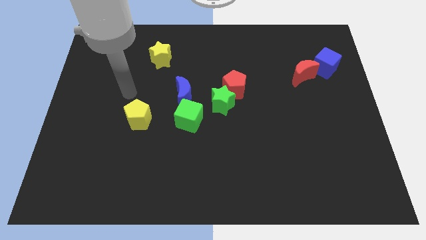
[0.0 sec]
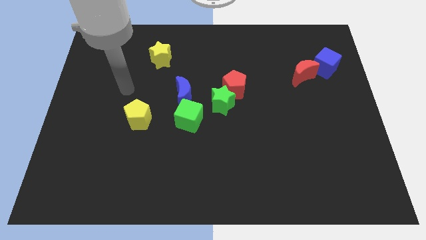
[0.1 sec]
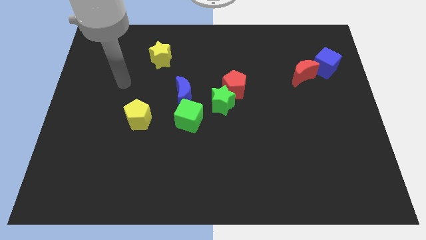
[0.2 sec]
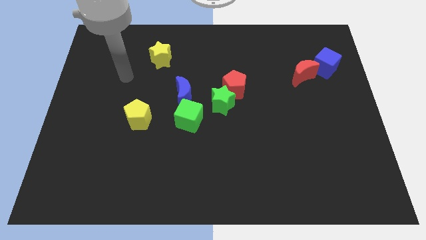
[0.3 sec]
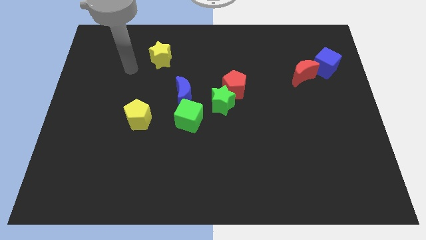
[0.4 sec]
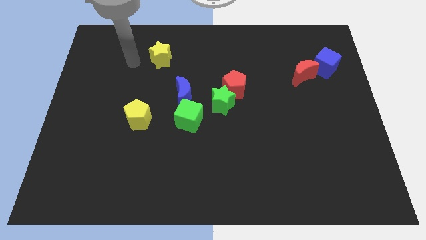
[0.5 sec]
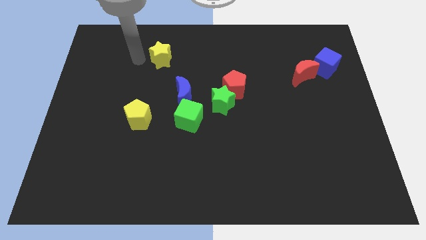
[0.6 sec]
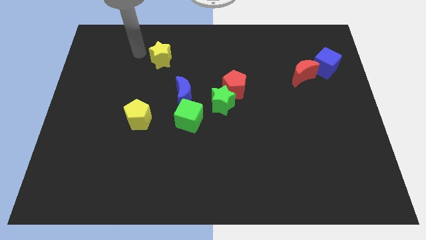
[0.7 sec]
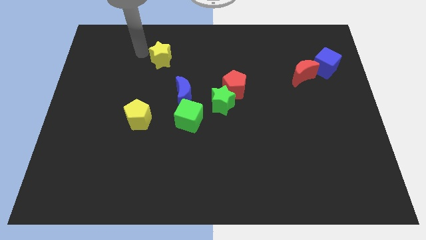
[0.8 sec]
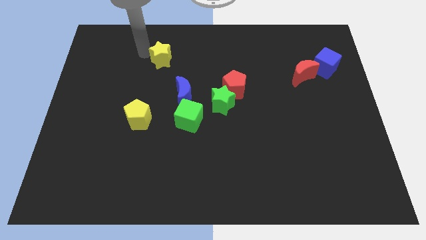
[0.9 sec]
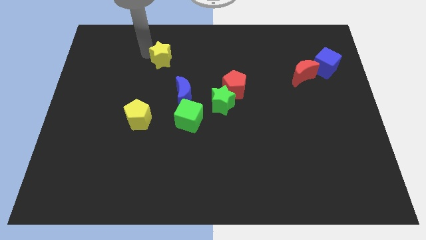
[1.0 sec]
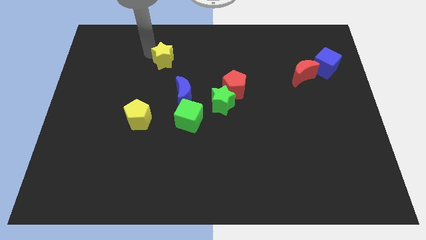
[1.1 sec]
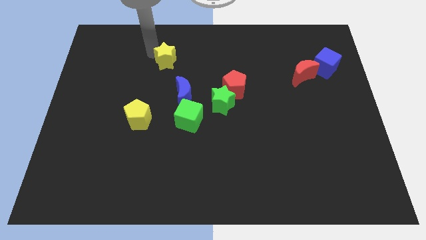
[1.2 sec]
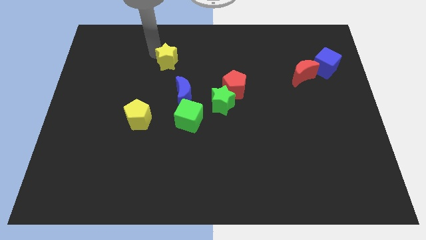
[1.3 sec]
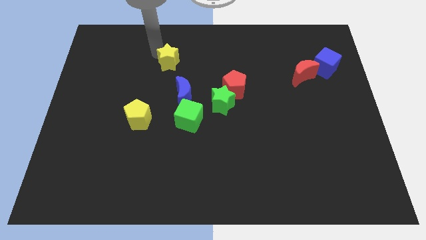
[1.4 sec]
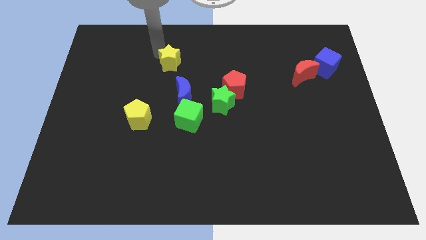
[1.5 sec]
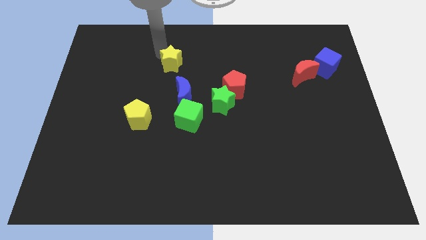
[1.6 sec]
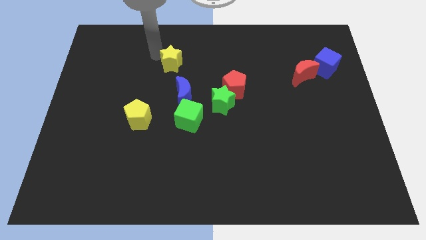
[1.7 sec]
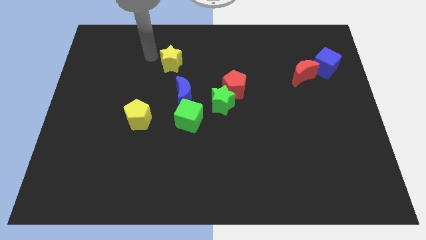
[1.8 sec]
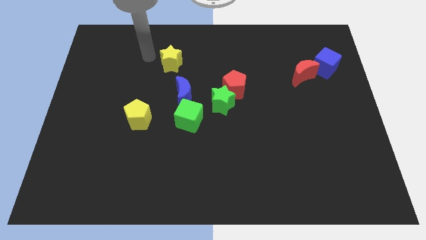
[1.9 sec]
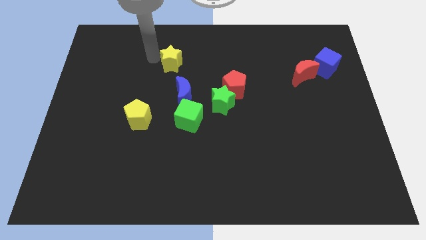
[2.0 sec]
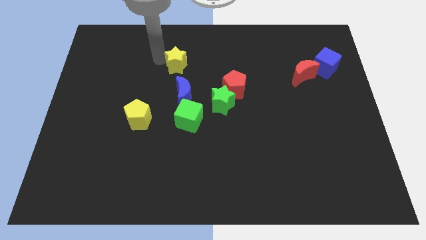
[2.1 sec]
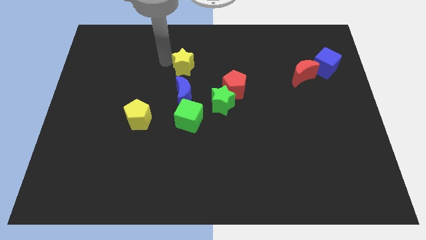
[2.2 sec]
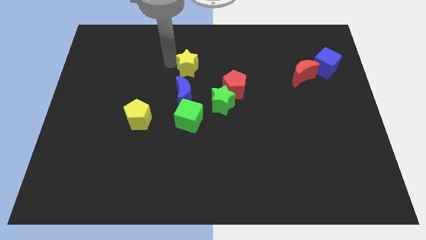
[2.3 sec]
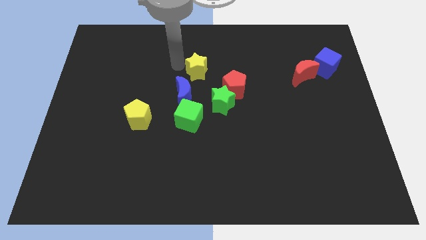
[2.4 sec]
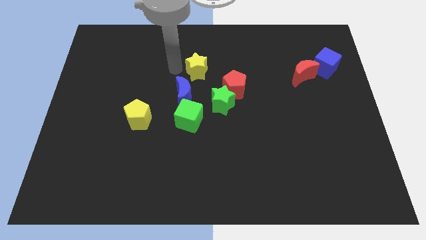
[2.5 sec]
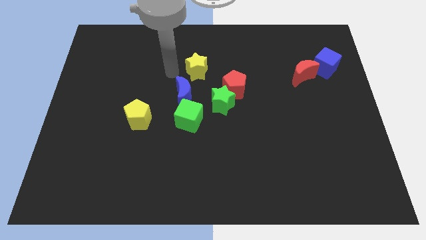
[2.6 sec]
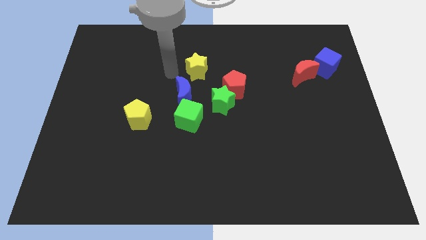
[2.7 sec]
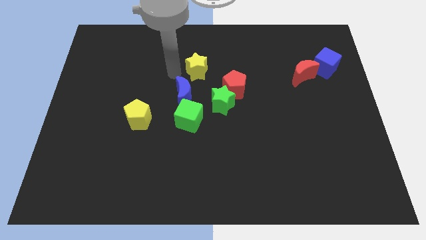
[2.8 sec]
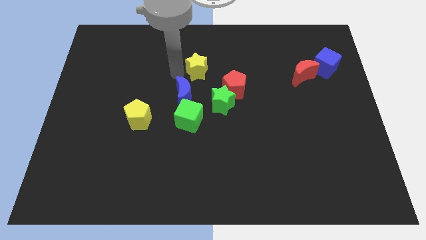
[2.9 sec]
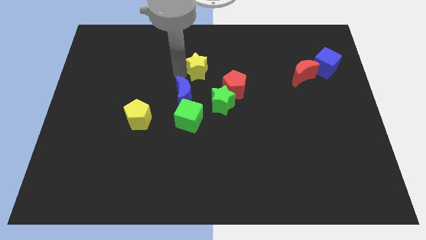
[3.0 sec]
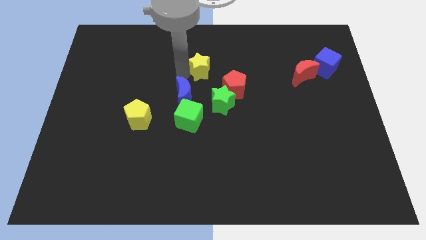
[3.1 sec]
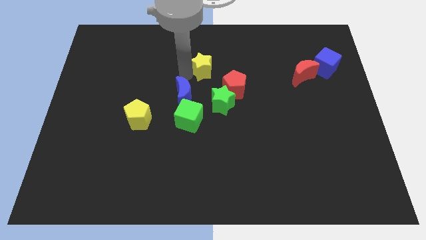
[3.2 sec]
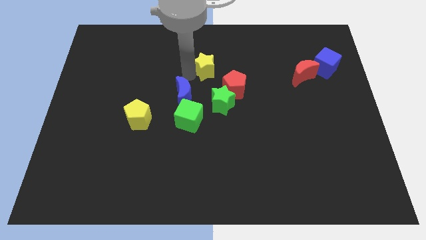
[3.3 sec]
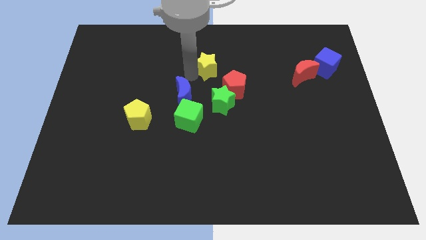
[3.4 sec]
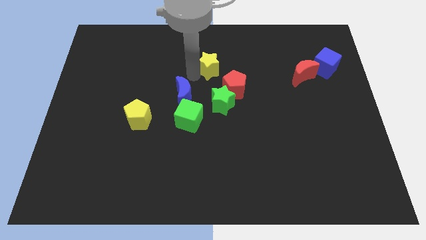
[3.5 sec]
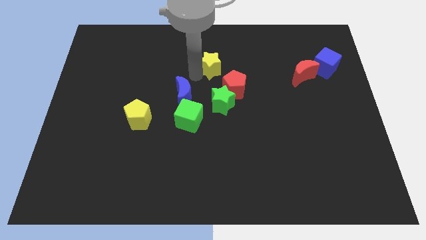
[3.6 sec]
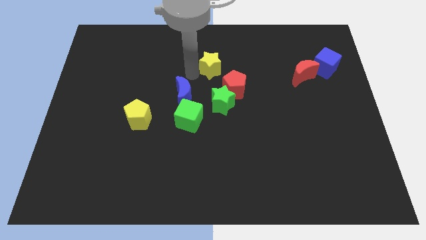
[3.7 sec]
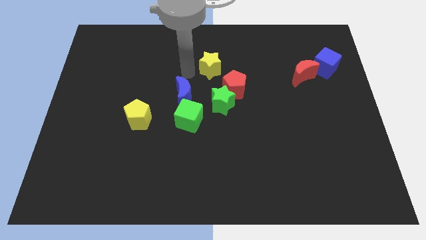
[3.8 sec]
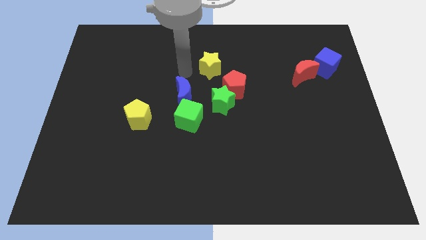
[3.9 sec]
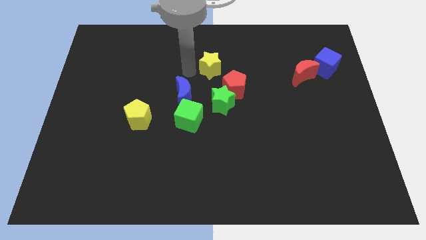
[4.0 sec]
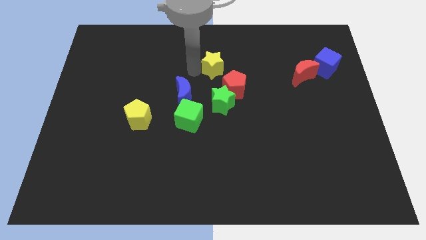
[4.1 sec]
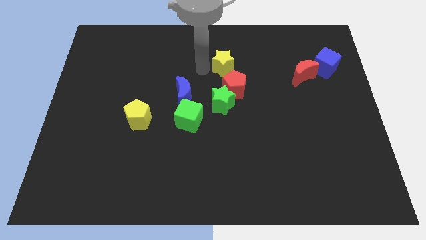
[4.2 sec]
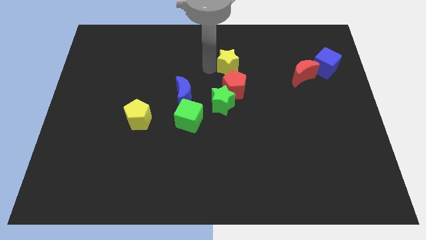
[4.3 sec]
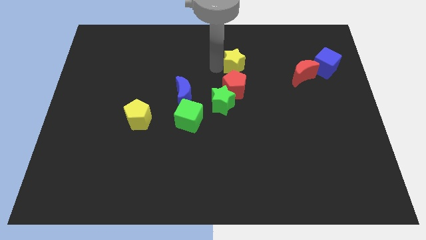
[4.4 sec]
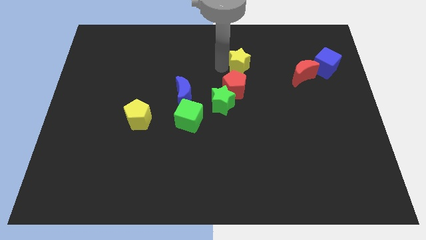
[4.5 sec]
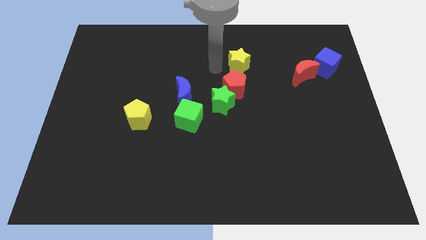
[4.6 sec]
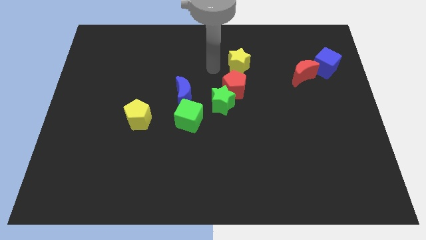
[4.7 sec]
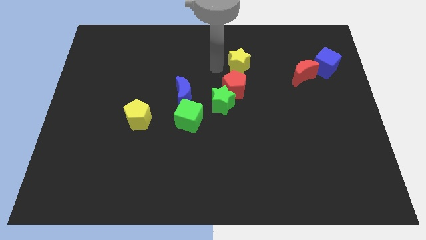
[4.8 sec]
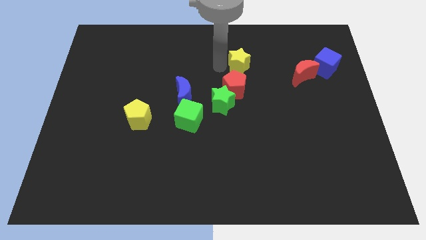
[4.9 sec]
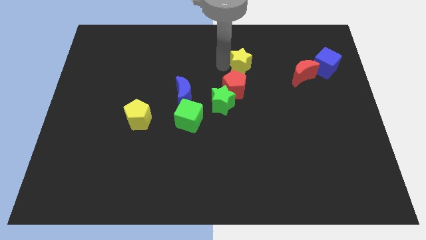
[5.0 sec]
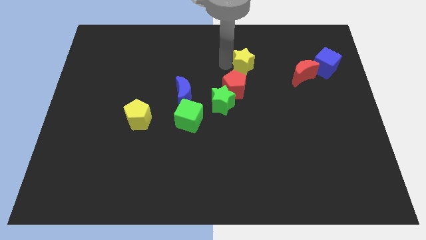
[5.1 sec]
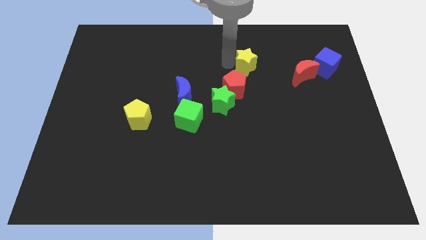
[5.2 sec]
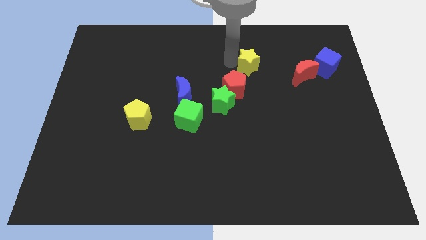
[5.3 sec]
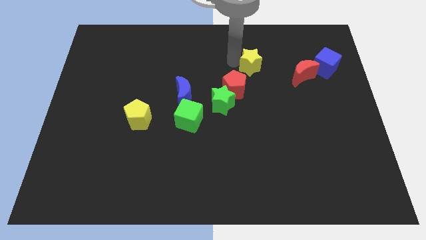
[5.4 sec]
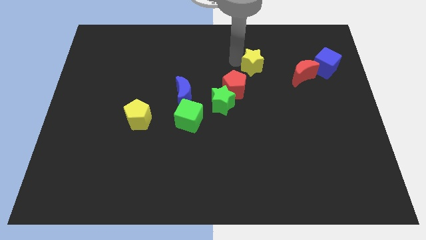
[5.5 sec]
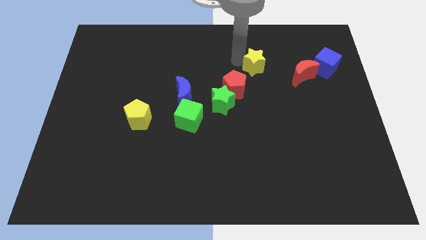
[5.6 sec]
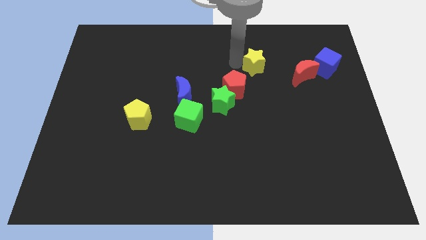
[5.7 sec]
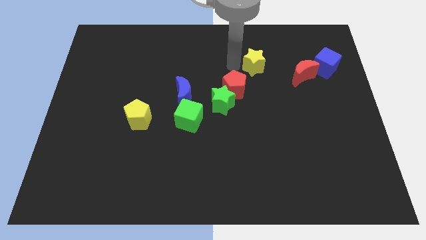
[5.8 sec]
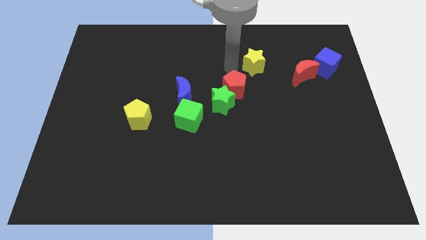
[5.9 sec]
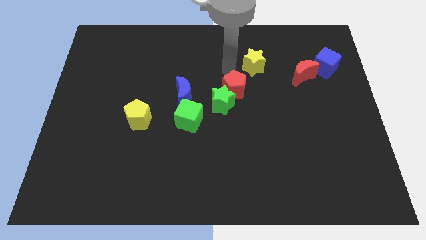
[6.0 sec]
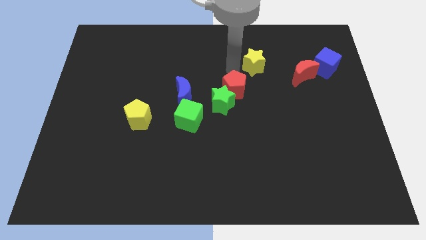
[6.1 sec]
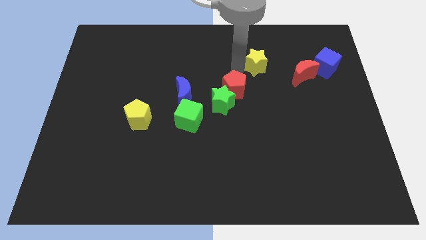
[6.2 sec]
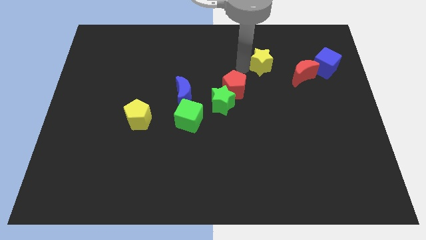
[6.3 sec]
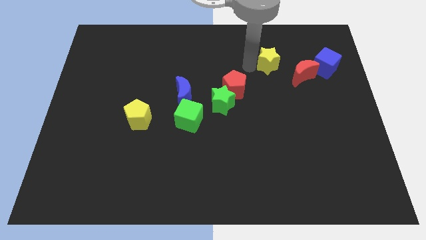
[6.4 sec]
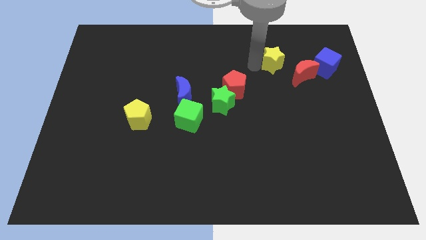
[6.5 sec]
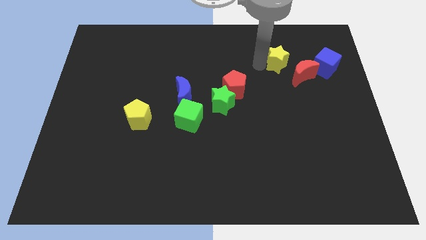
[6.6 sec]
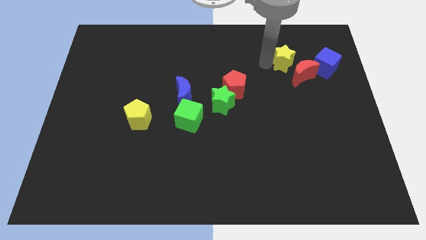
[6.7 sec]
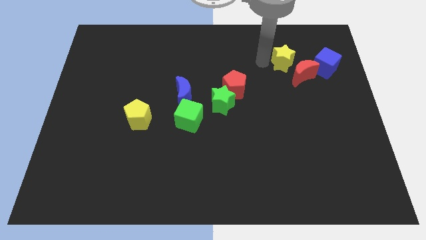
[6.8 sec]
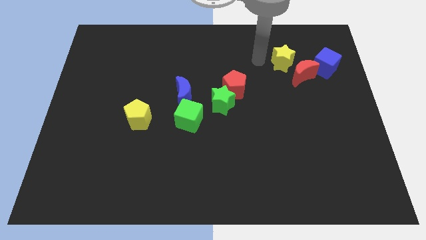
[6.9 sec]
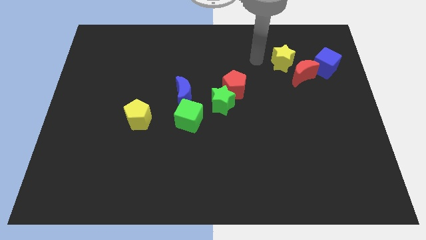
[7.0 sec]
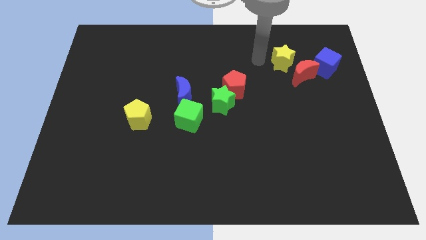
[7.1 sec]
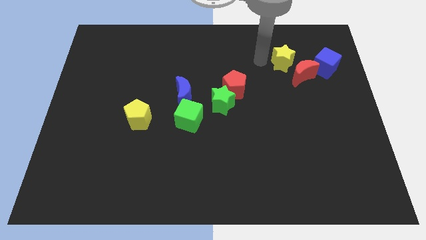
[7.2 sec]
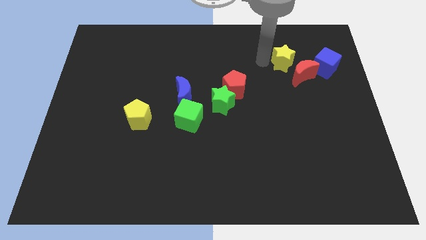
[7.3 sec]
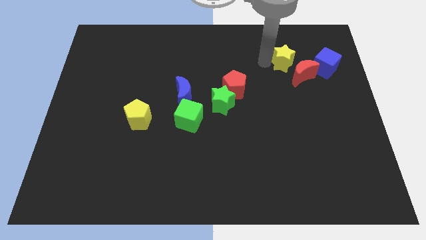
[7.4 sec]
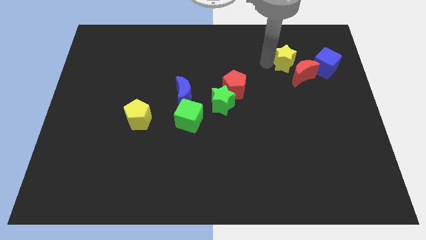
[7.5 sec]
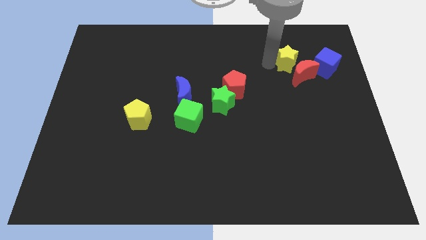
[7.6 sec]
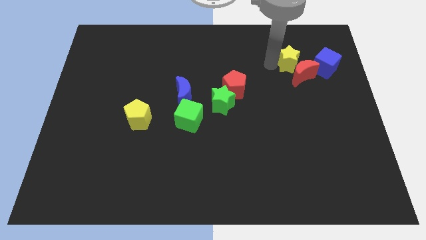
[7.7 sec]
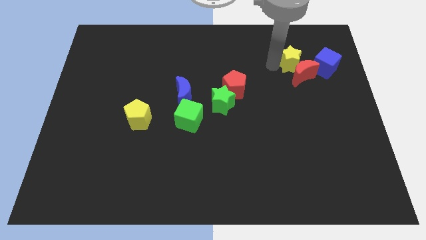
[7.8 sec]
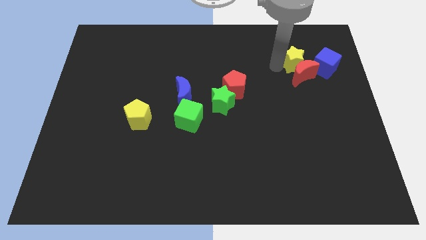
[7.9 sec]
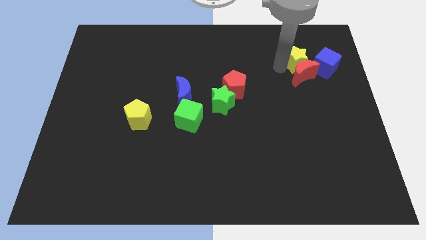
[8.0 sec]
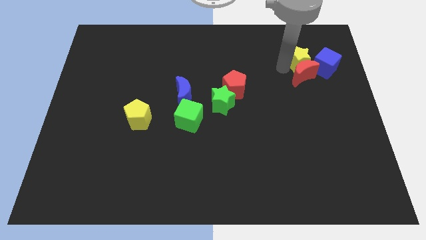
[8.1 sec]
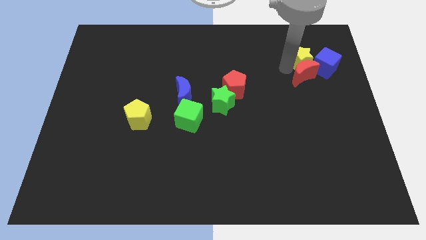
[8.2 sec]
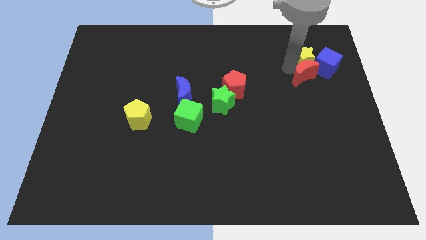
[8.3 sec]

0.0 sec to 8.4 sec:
move the yellow star next to the blue cube
